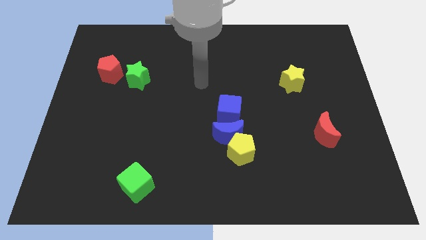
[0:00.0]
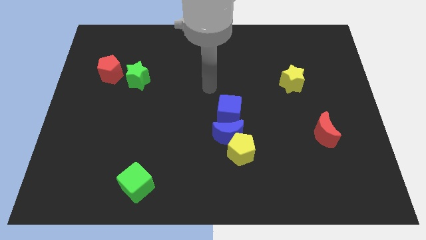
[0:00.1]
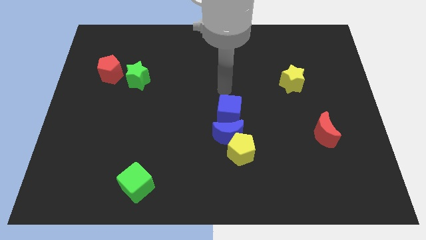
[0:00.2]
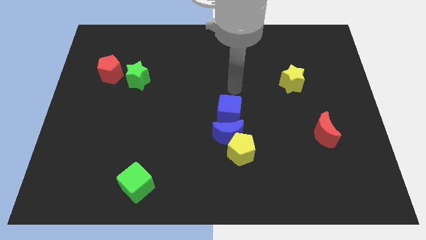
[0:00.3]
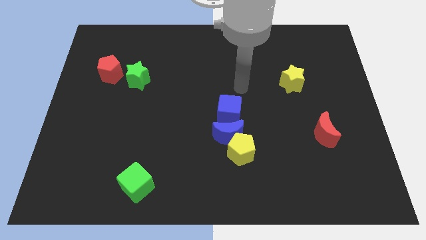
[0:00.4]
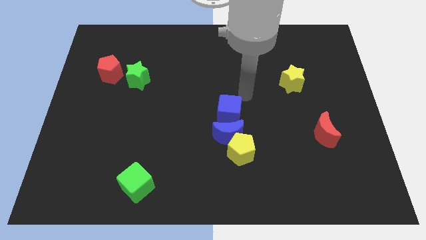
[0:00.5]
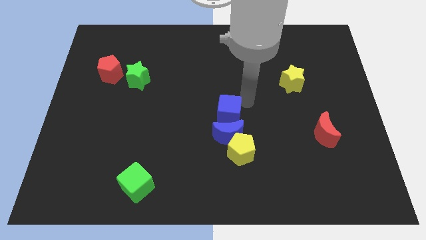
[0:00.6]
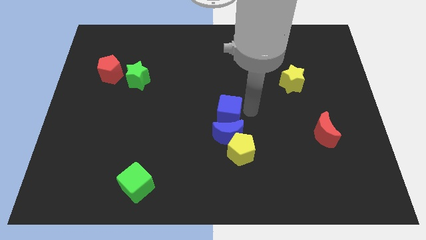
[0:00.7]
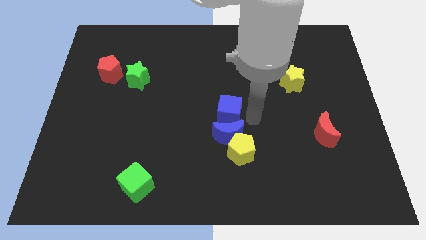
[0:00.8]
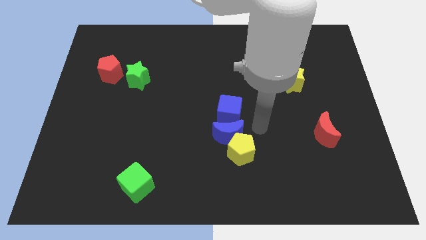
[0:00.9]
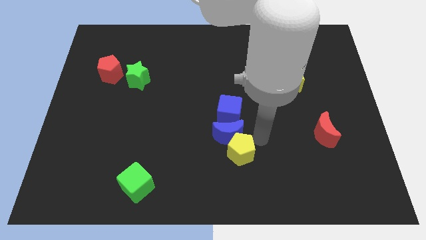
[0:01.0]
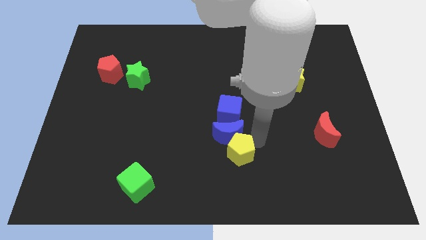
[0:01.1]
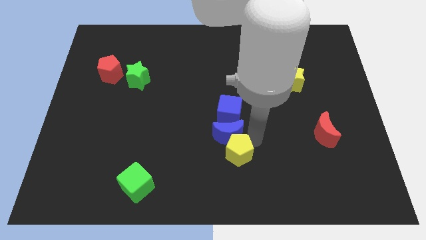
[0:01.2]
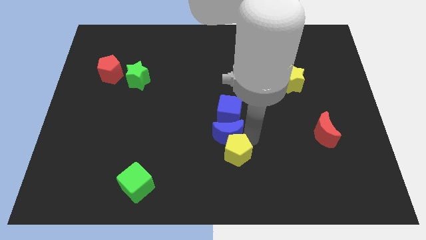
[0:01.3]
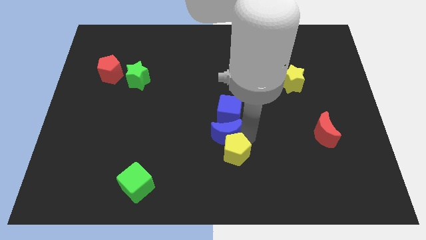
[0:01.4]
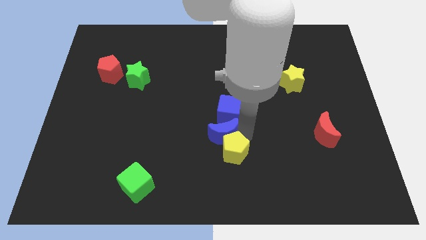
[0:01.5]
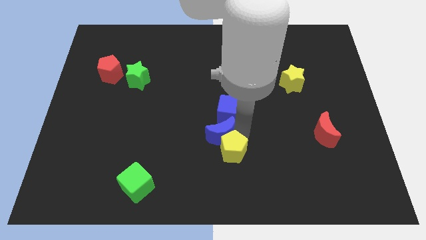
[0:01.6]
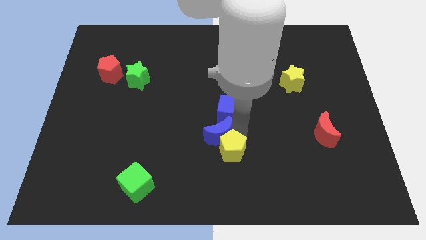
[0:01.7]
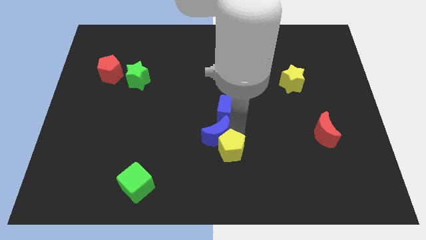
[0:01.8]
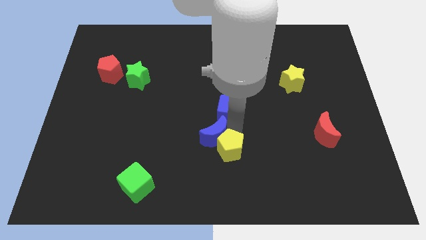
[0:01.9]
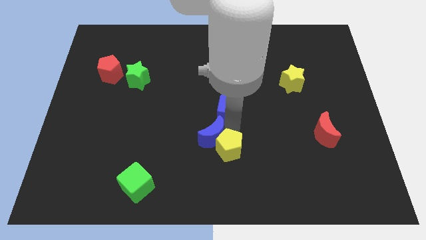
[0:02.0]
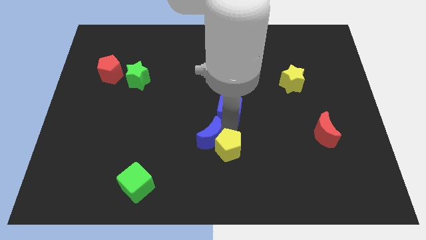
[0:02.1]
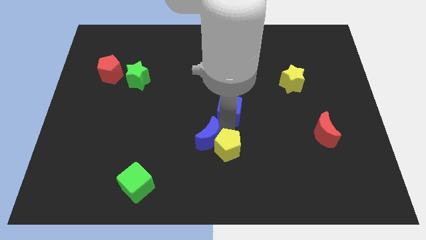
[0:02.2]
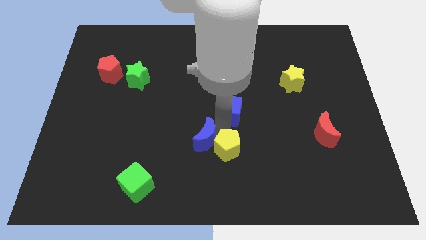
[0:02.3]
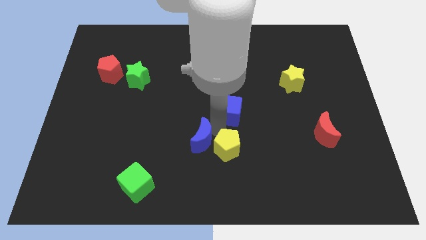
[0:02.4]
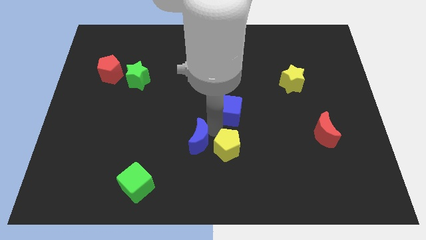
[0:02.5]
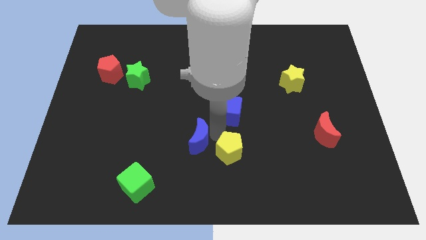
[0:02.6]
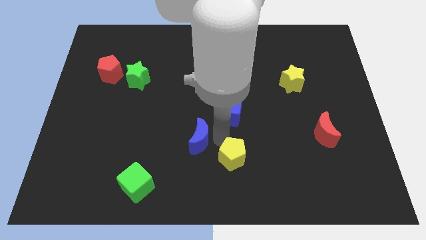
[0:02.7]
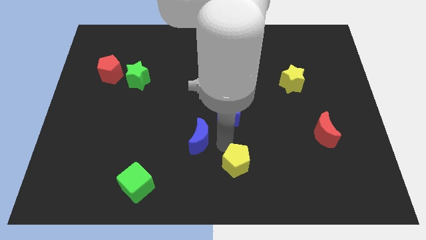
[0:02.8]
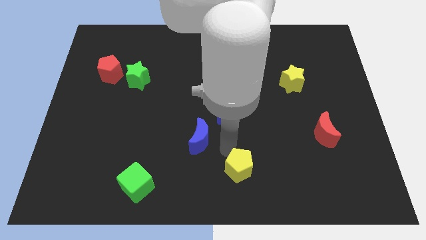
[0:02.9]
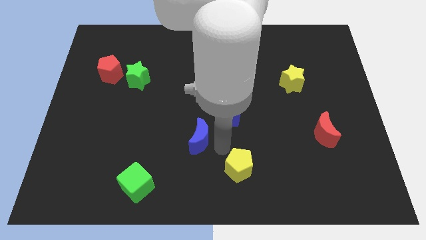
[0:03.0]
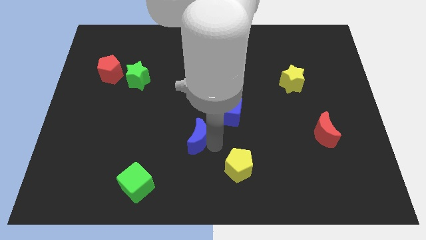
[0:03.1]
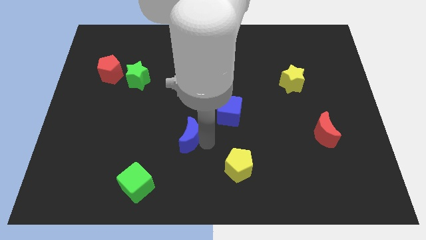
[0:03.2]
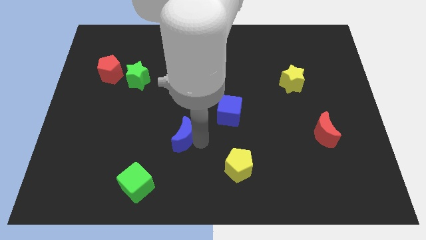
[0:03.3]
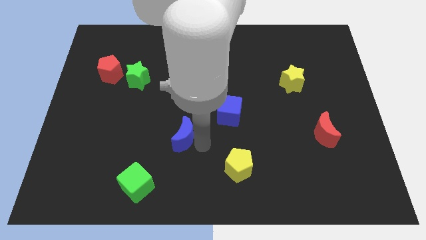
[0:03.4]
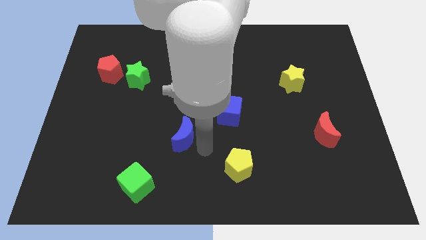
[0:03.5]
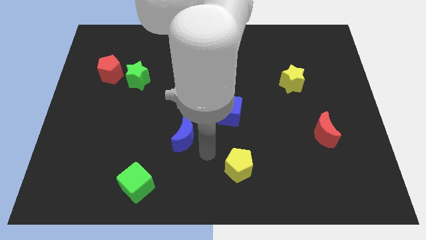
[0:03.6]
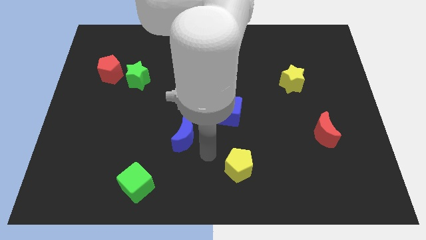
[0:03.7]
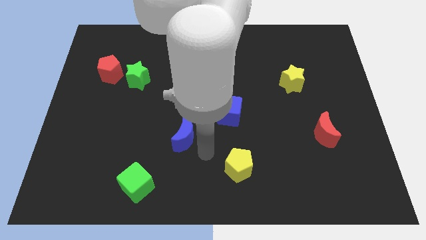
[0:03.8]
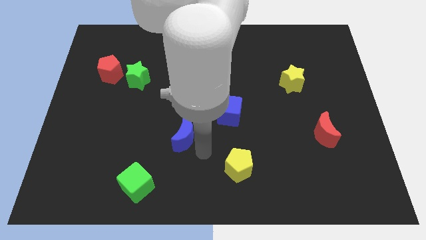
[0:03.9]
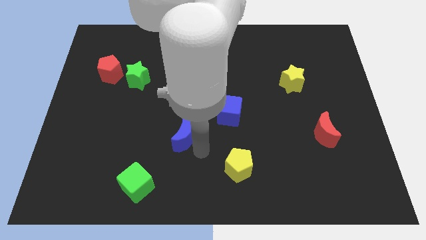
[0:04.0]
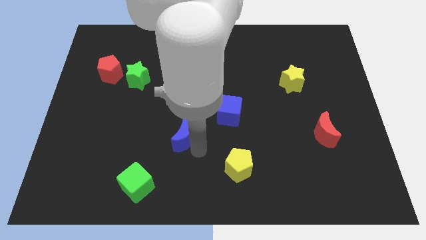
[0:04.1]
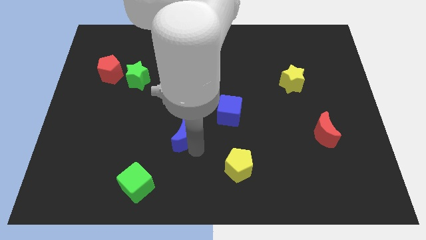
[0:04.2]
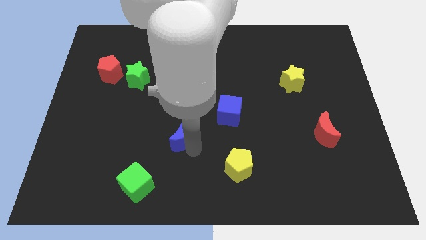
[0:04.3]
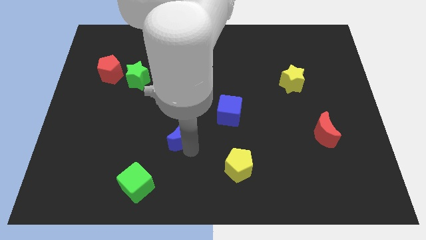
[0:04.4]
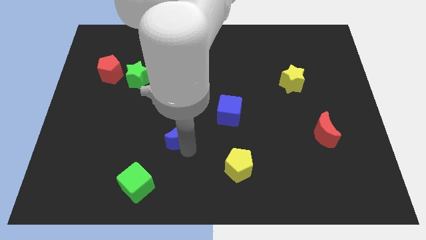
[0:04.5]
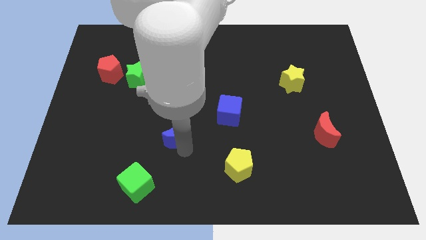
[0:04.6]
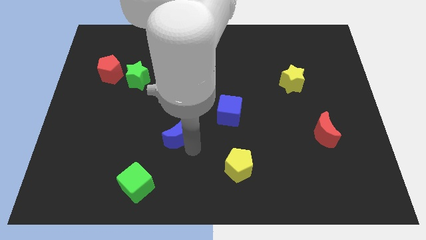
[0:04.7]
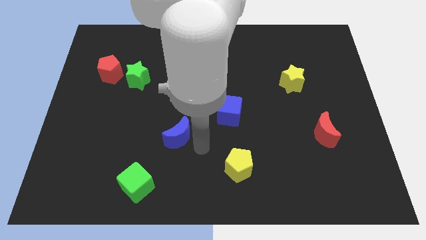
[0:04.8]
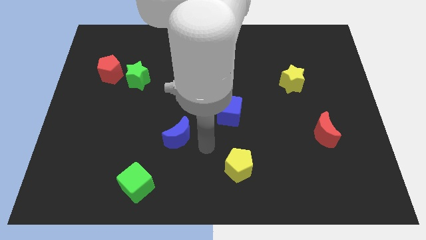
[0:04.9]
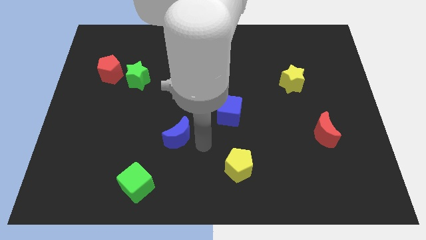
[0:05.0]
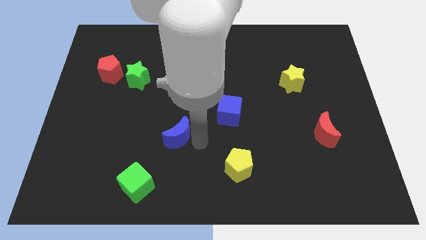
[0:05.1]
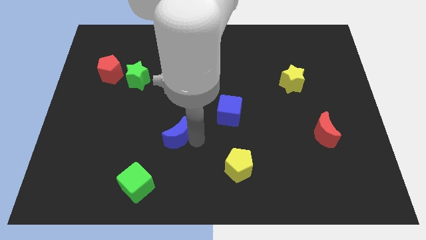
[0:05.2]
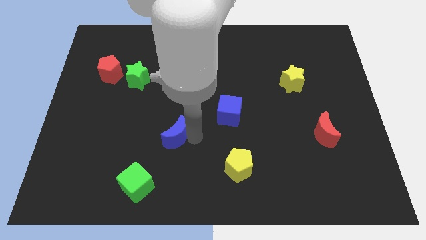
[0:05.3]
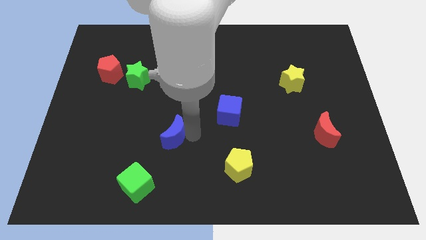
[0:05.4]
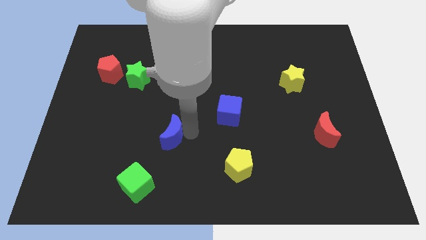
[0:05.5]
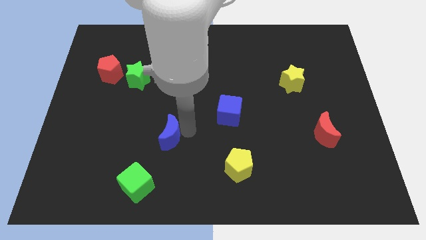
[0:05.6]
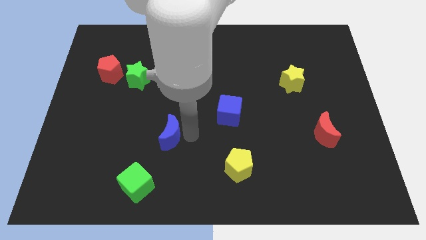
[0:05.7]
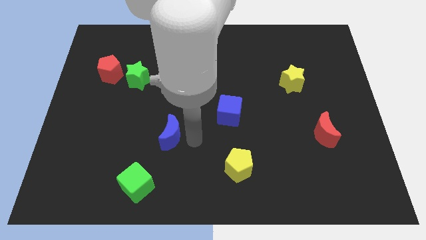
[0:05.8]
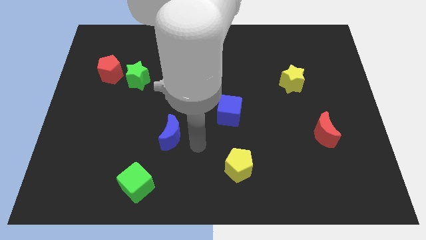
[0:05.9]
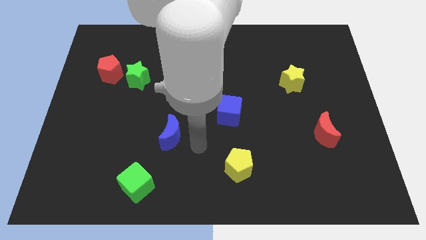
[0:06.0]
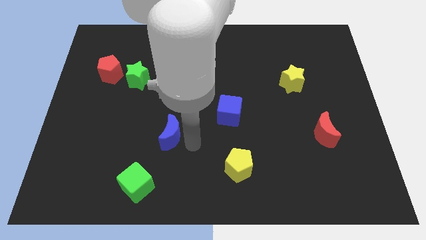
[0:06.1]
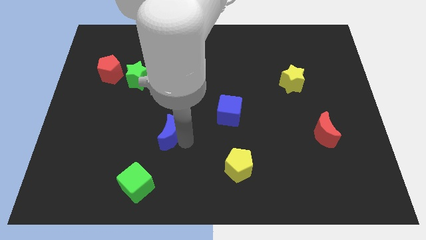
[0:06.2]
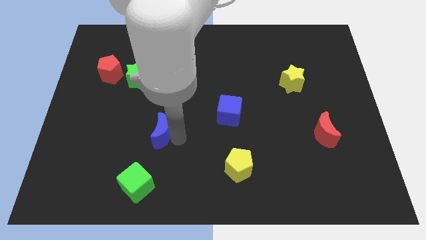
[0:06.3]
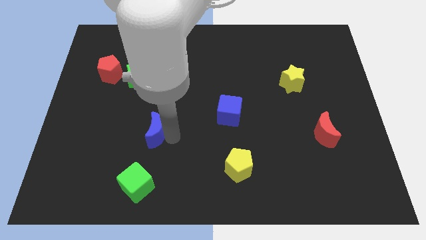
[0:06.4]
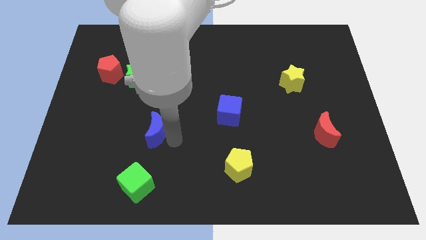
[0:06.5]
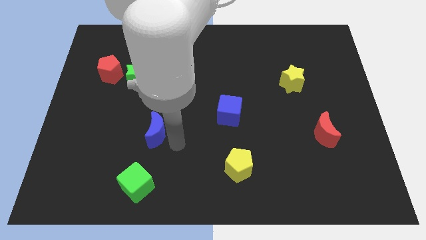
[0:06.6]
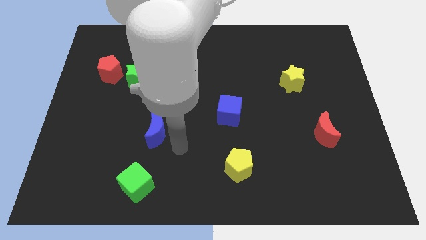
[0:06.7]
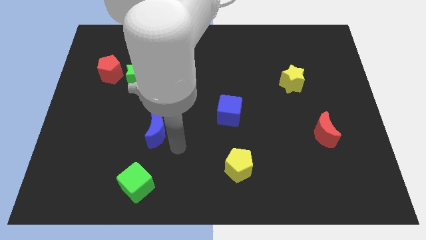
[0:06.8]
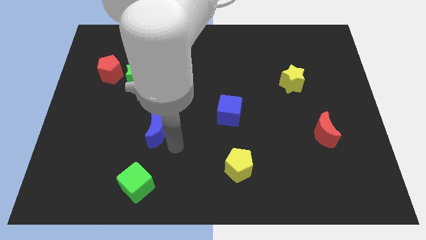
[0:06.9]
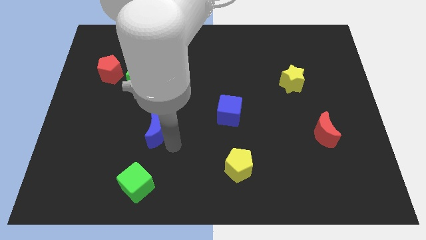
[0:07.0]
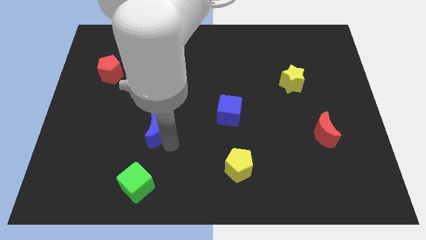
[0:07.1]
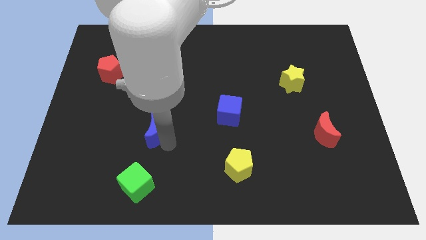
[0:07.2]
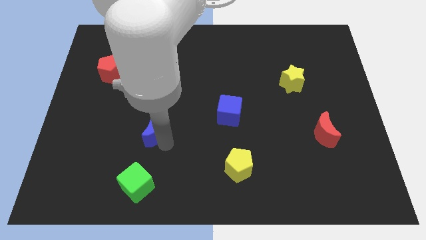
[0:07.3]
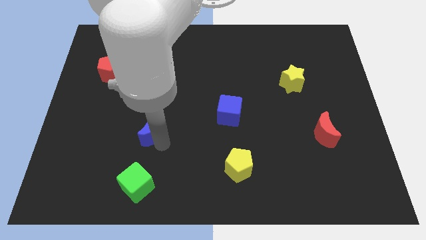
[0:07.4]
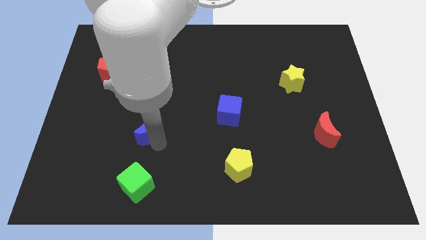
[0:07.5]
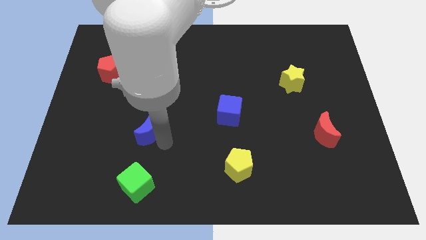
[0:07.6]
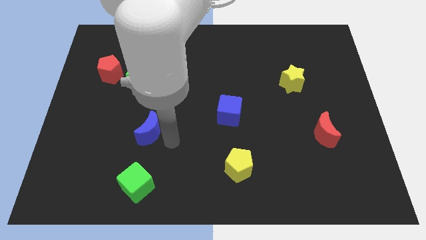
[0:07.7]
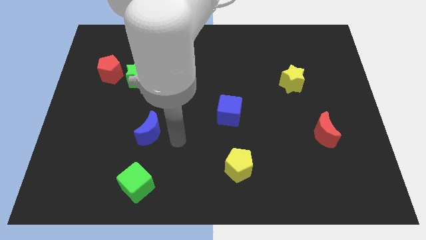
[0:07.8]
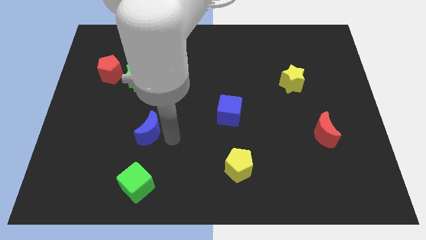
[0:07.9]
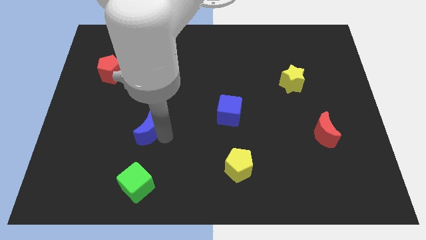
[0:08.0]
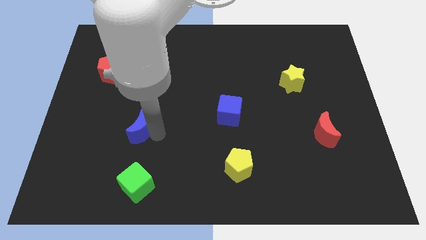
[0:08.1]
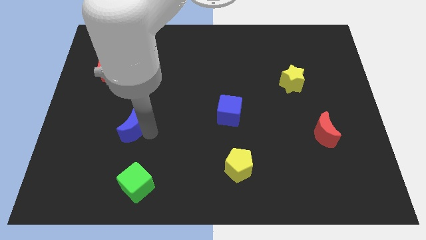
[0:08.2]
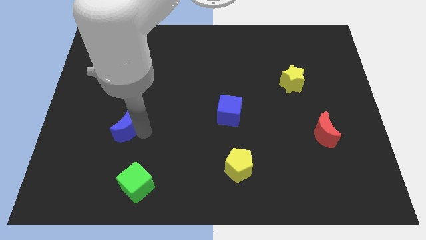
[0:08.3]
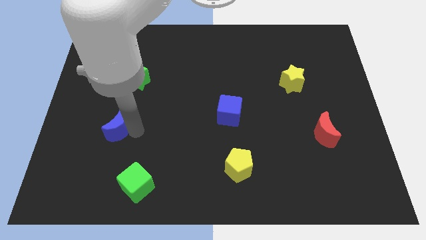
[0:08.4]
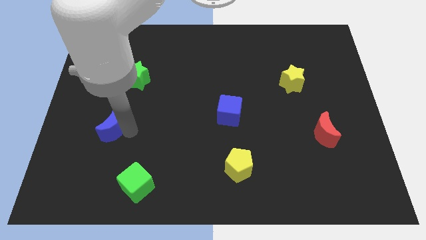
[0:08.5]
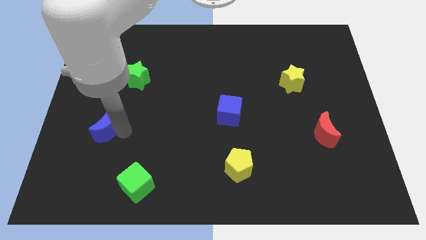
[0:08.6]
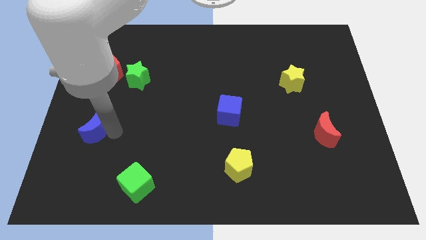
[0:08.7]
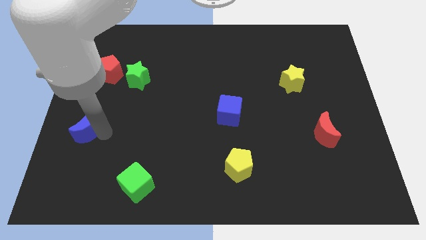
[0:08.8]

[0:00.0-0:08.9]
put the blue moon to the center left
